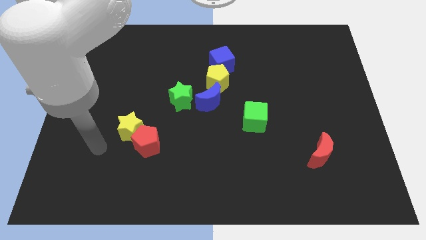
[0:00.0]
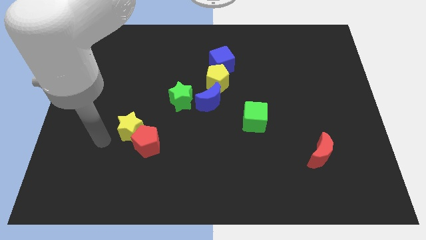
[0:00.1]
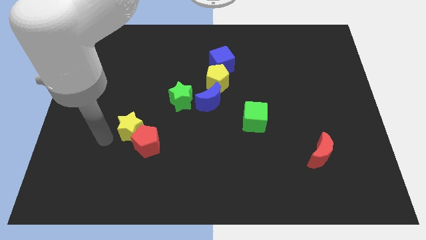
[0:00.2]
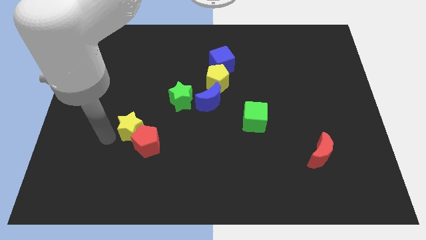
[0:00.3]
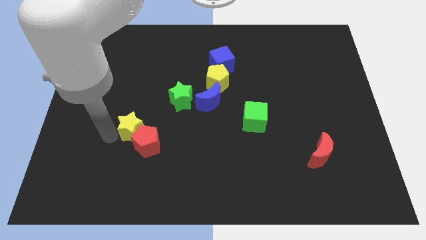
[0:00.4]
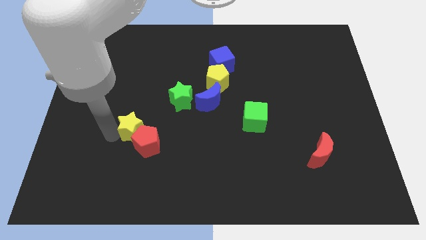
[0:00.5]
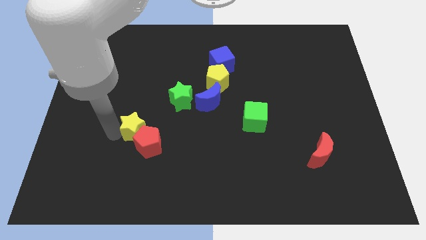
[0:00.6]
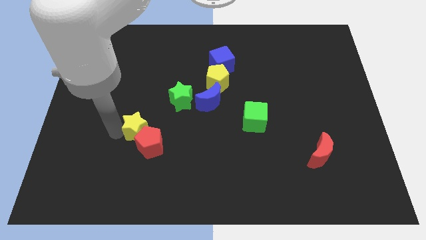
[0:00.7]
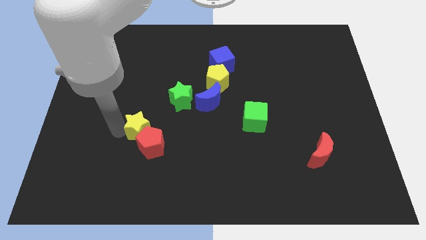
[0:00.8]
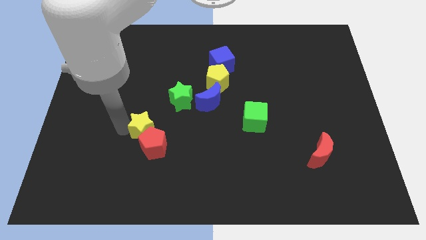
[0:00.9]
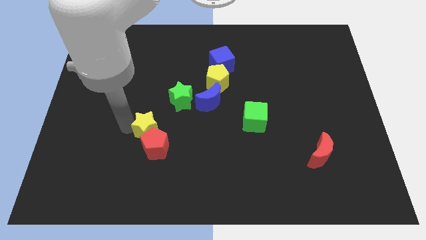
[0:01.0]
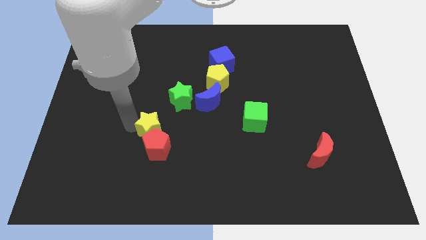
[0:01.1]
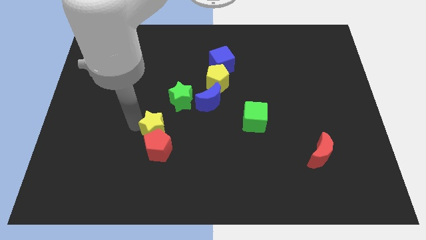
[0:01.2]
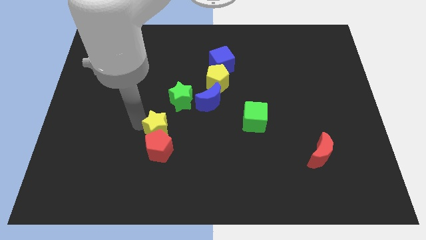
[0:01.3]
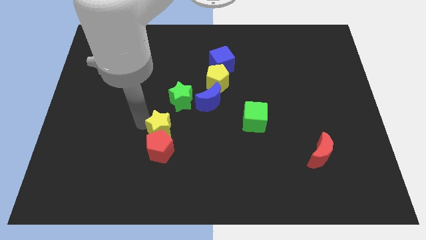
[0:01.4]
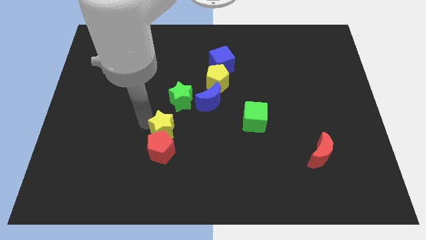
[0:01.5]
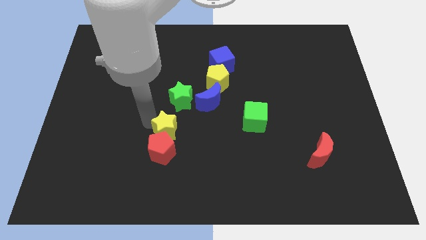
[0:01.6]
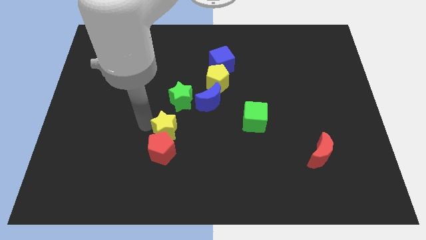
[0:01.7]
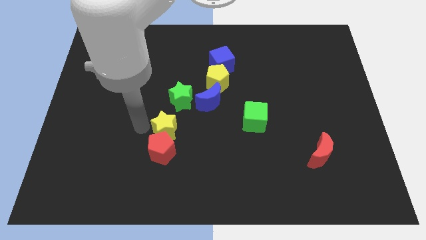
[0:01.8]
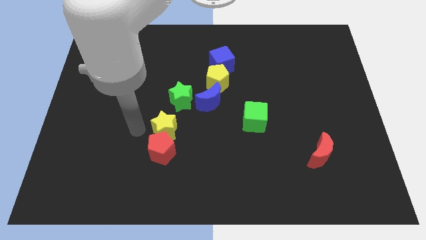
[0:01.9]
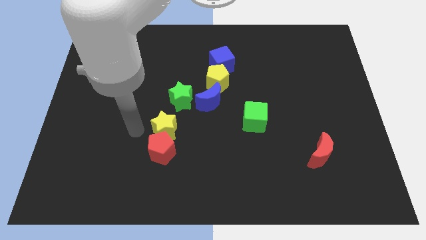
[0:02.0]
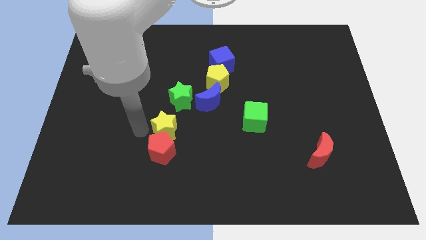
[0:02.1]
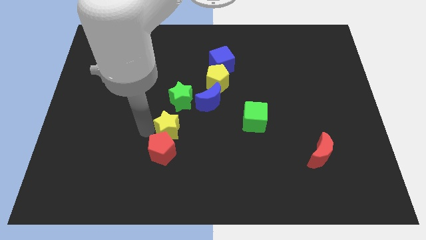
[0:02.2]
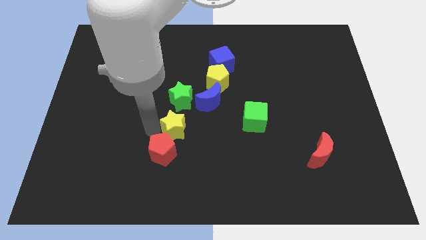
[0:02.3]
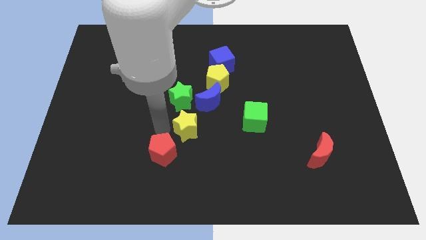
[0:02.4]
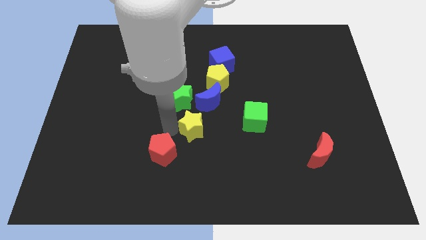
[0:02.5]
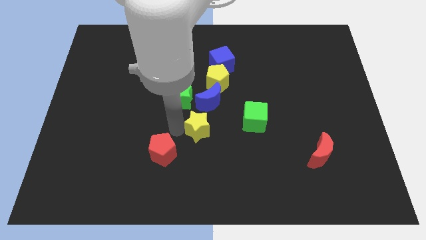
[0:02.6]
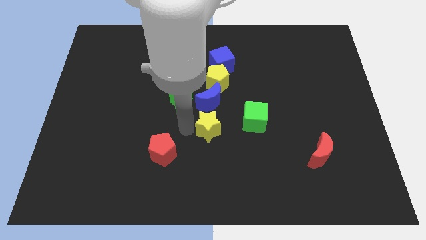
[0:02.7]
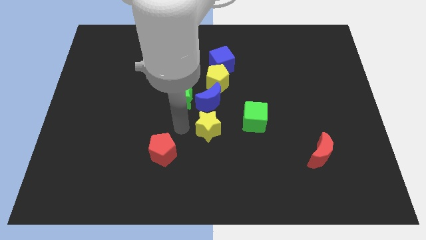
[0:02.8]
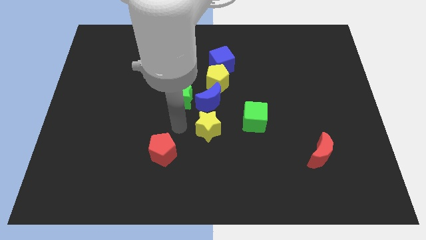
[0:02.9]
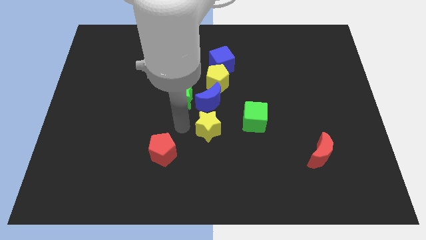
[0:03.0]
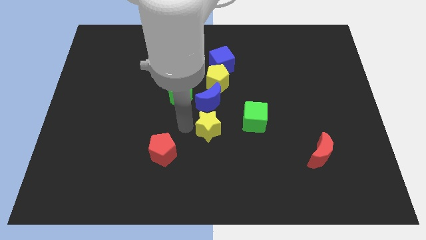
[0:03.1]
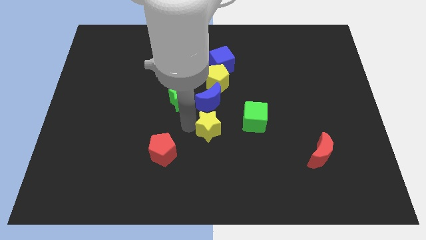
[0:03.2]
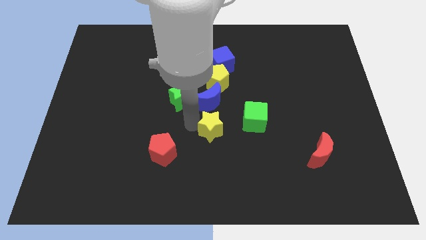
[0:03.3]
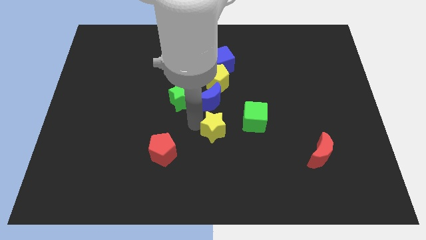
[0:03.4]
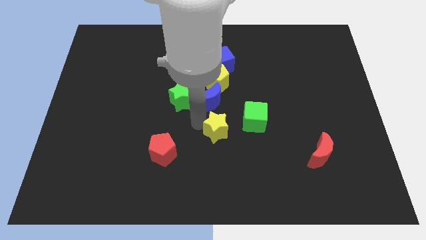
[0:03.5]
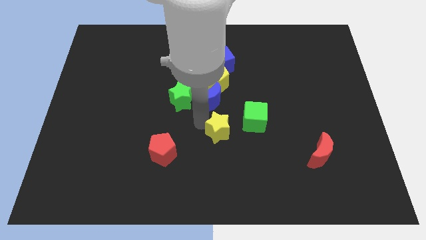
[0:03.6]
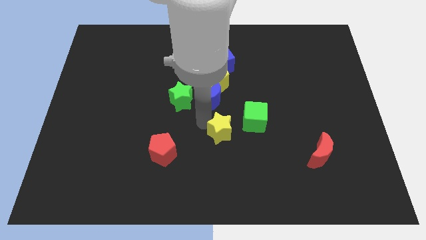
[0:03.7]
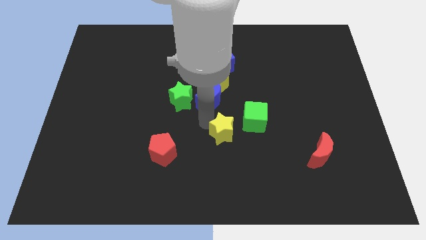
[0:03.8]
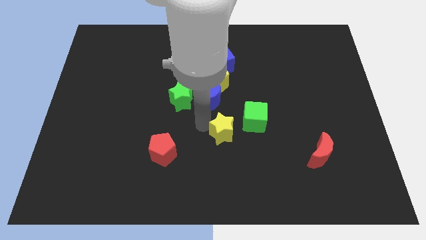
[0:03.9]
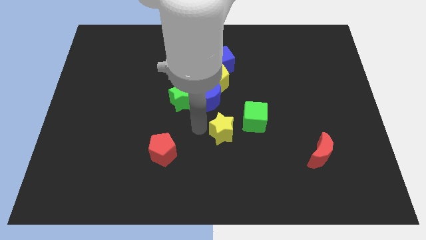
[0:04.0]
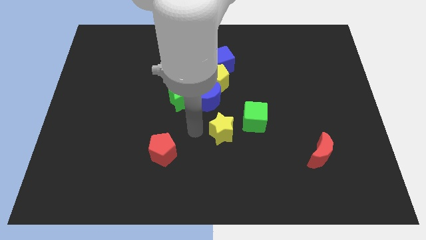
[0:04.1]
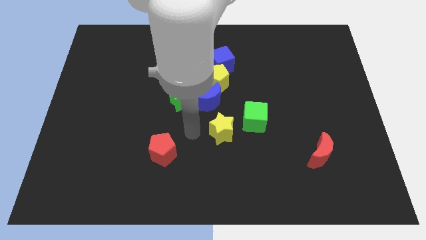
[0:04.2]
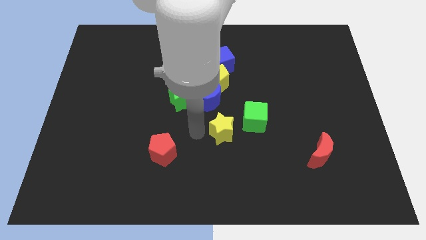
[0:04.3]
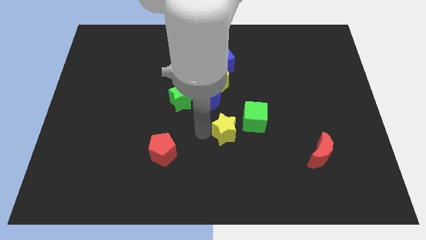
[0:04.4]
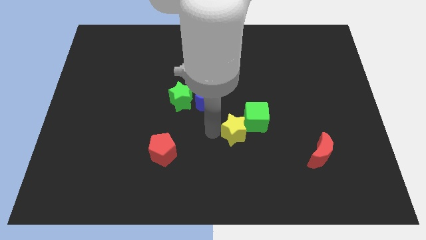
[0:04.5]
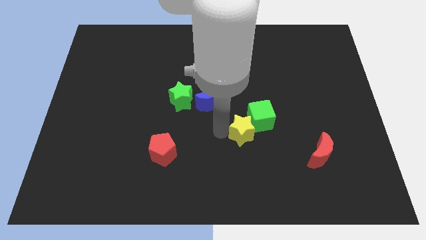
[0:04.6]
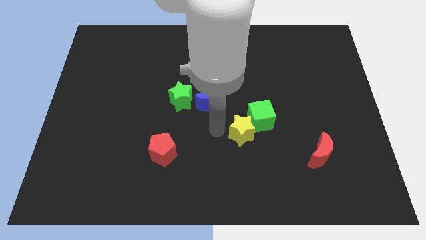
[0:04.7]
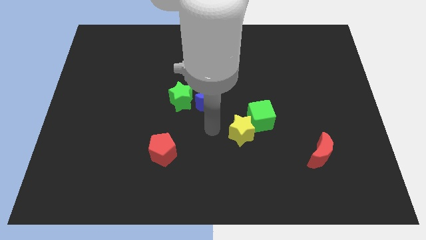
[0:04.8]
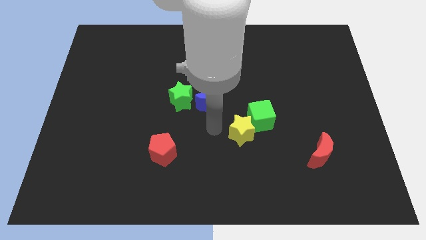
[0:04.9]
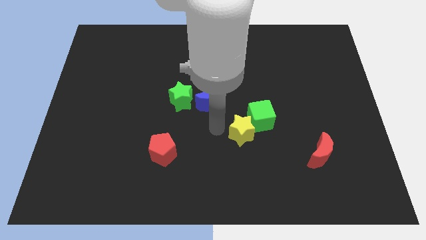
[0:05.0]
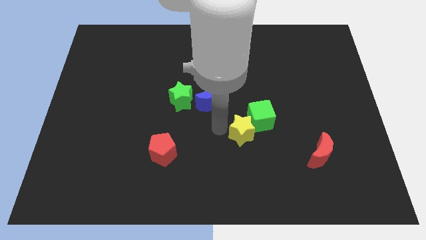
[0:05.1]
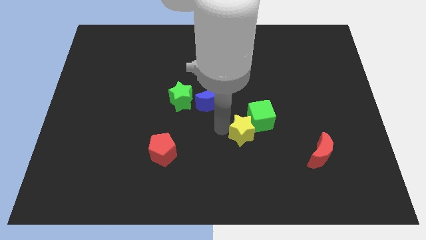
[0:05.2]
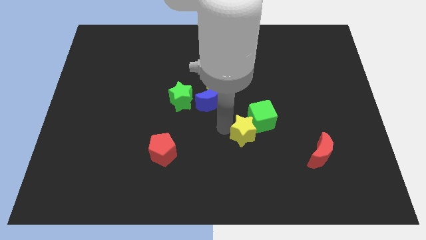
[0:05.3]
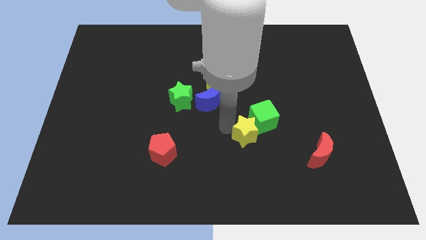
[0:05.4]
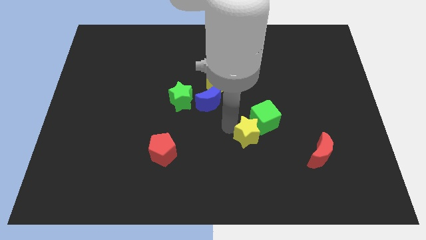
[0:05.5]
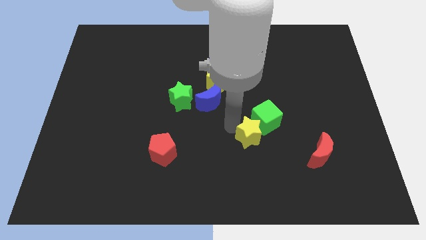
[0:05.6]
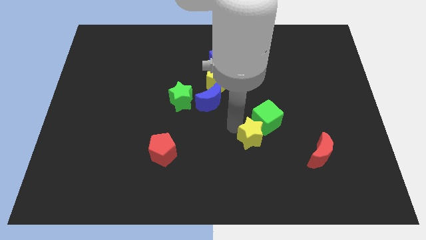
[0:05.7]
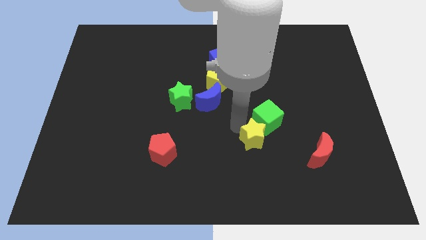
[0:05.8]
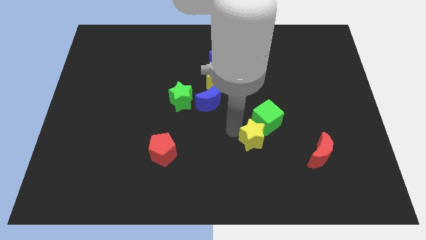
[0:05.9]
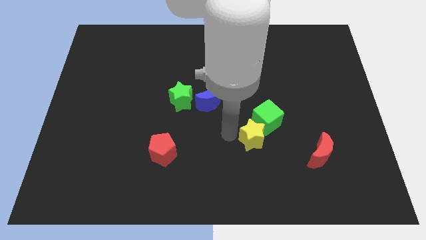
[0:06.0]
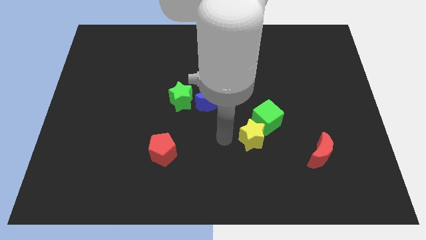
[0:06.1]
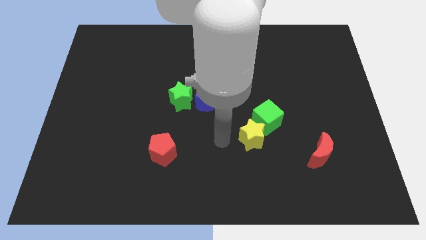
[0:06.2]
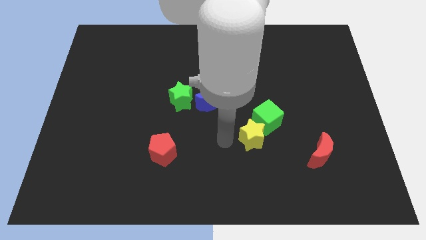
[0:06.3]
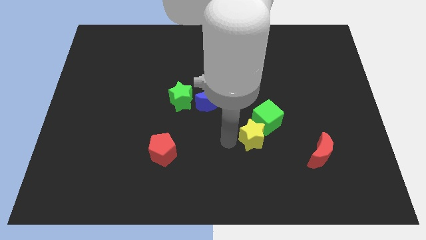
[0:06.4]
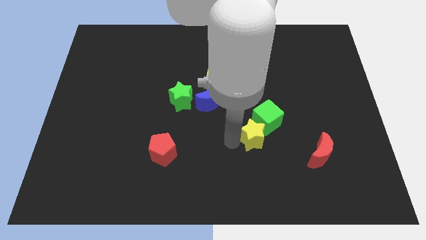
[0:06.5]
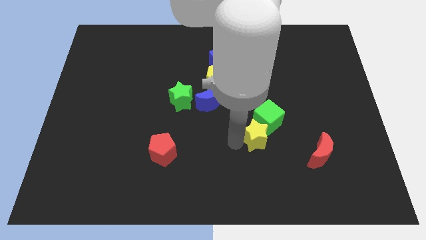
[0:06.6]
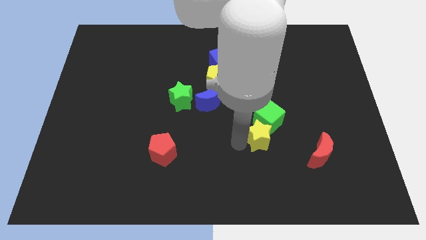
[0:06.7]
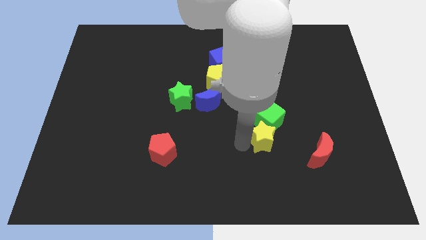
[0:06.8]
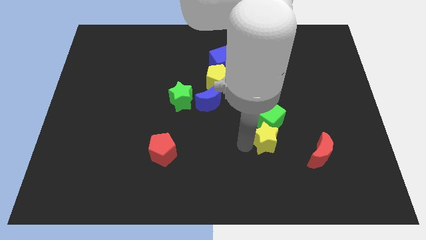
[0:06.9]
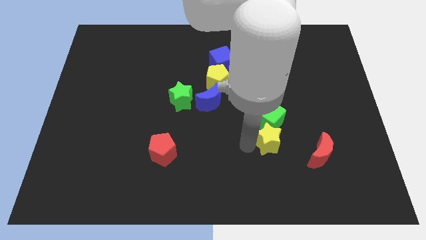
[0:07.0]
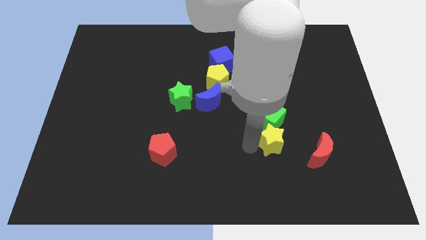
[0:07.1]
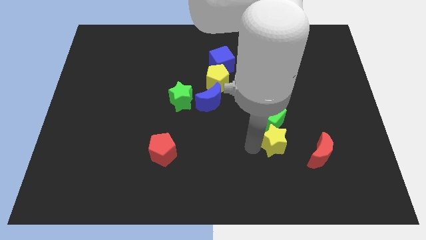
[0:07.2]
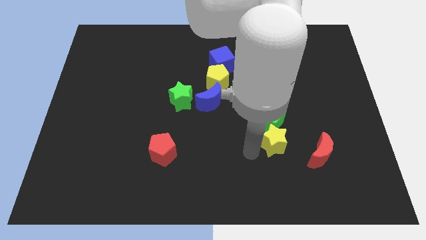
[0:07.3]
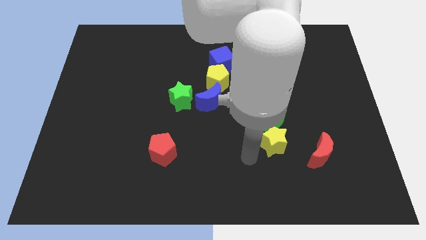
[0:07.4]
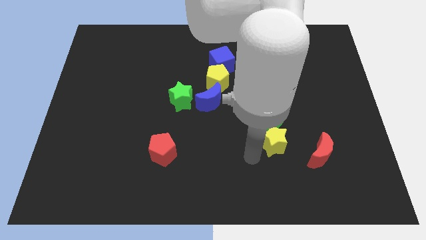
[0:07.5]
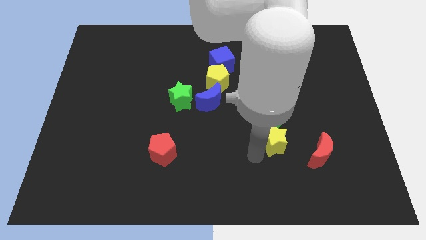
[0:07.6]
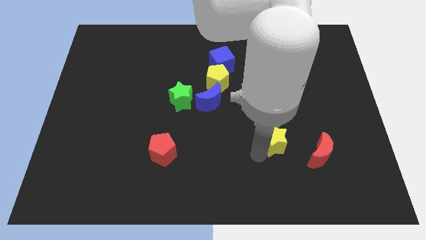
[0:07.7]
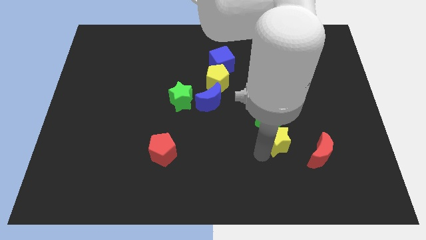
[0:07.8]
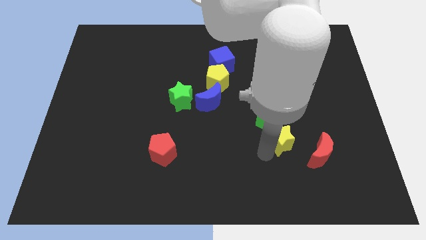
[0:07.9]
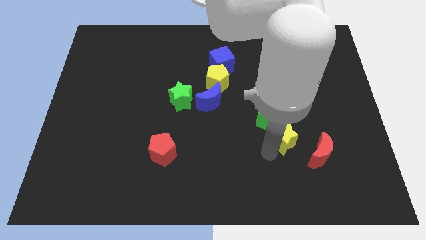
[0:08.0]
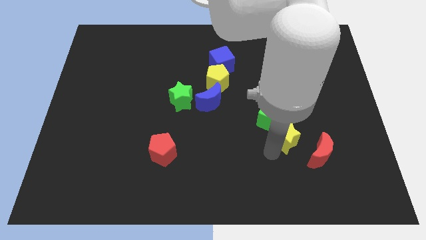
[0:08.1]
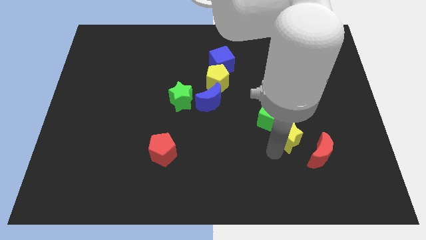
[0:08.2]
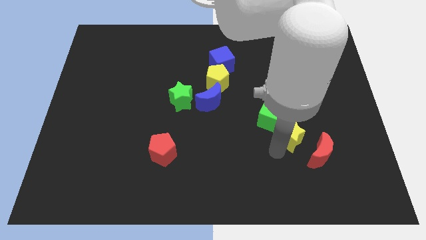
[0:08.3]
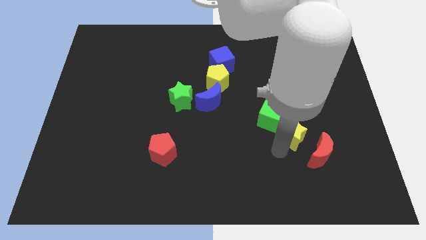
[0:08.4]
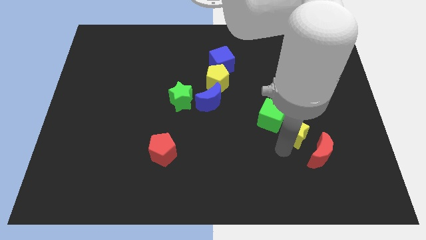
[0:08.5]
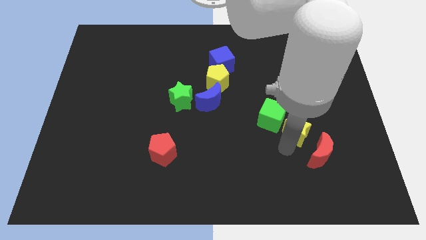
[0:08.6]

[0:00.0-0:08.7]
slide the yellow star to the top side of the red moon
